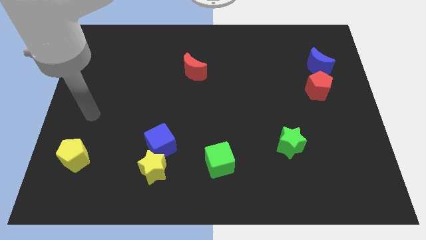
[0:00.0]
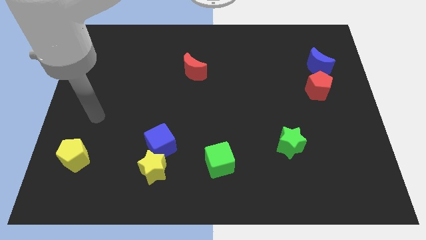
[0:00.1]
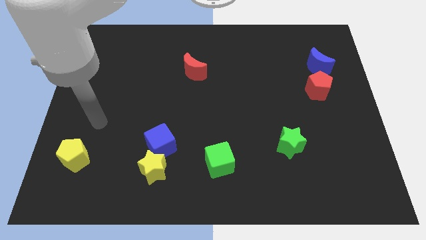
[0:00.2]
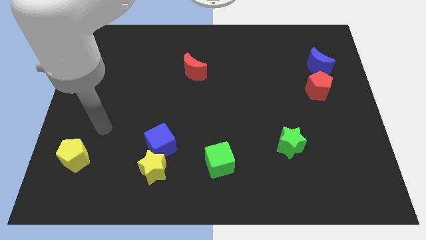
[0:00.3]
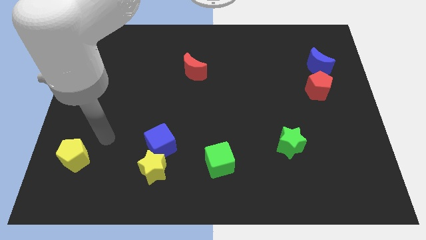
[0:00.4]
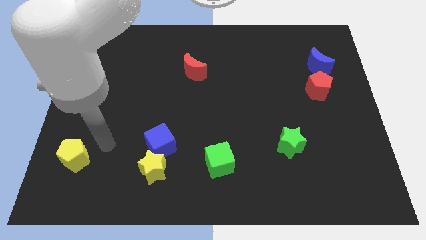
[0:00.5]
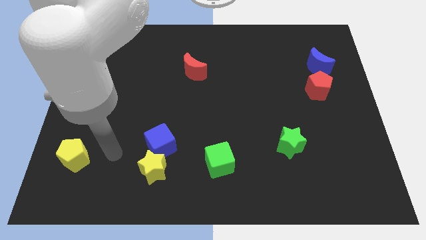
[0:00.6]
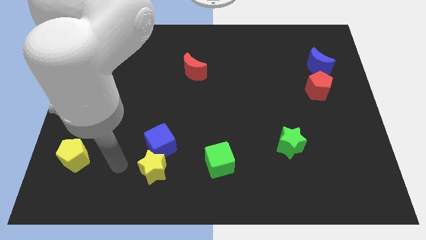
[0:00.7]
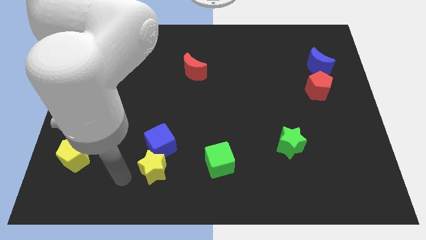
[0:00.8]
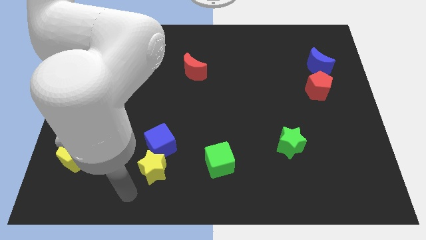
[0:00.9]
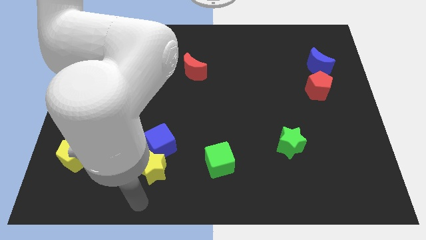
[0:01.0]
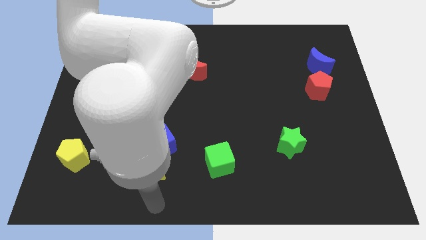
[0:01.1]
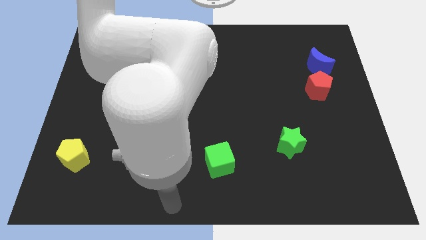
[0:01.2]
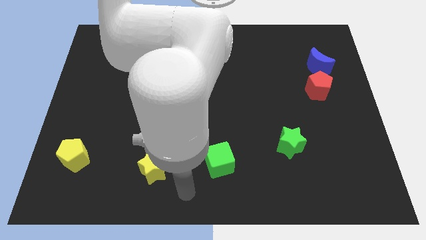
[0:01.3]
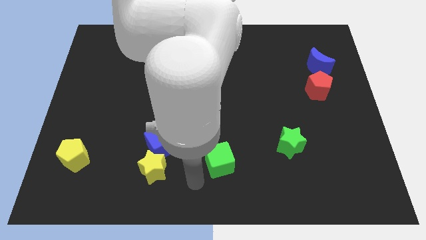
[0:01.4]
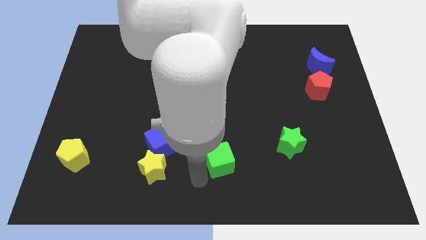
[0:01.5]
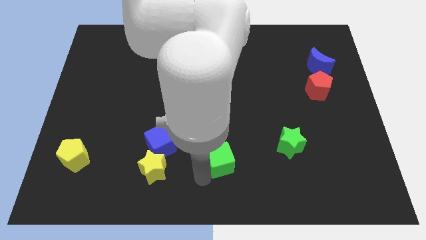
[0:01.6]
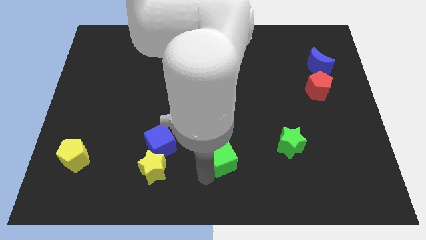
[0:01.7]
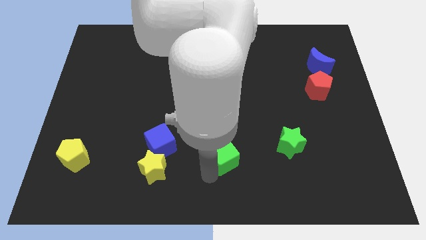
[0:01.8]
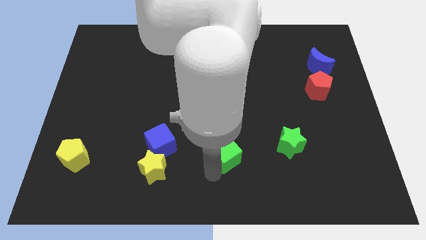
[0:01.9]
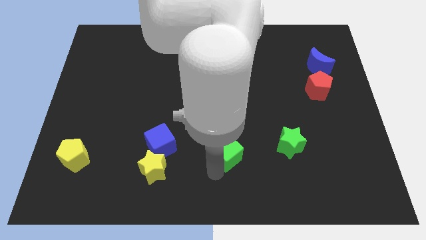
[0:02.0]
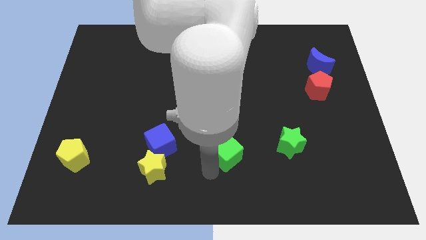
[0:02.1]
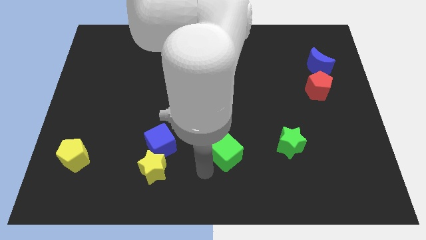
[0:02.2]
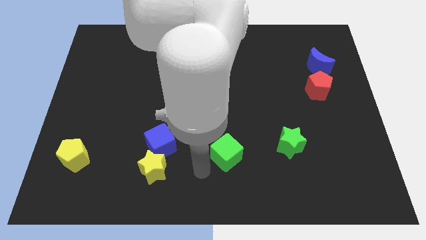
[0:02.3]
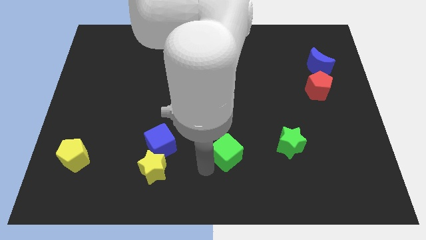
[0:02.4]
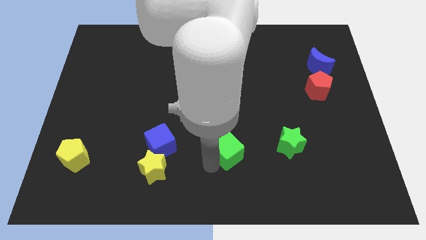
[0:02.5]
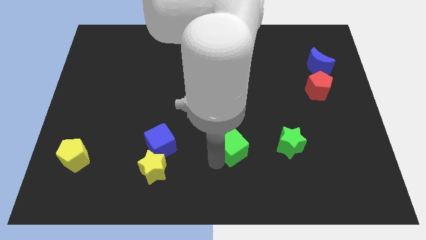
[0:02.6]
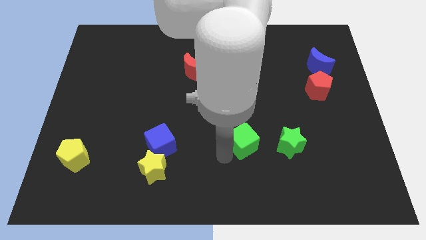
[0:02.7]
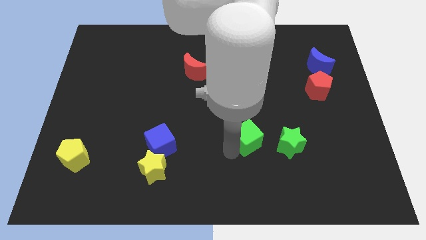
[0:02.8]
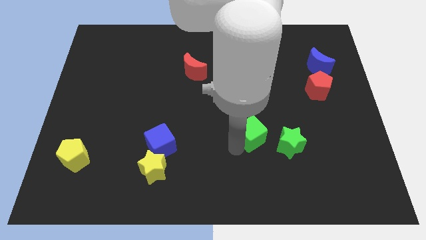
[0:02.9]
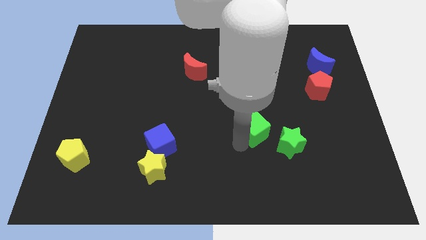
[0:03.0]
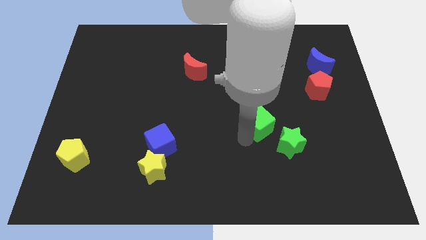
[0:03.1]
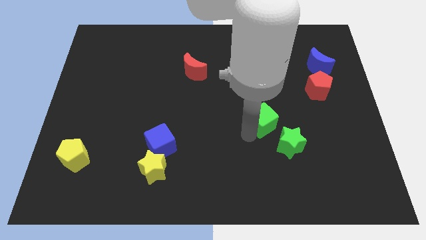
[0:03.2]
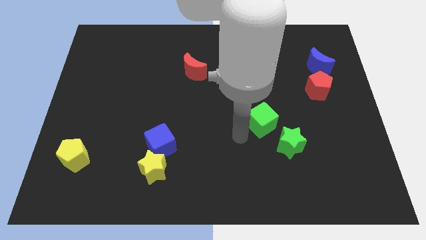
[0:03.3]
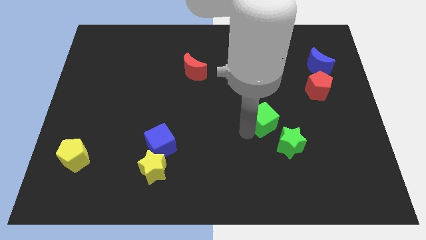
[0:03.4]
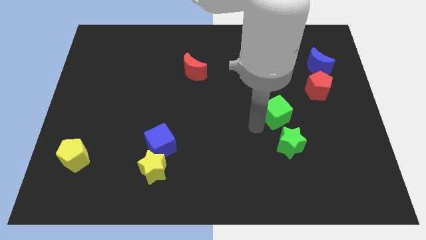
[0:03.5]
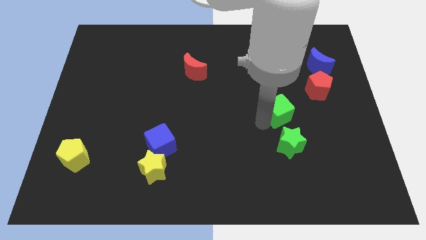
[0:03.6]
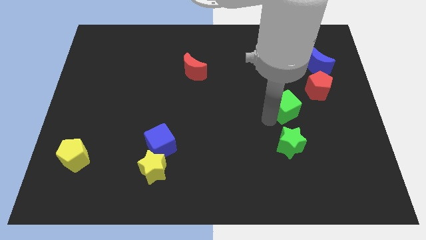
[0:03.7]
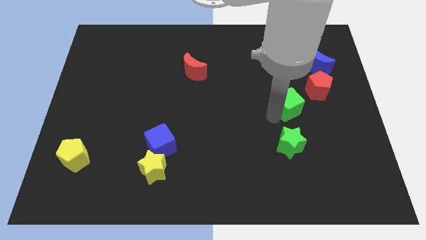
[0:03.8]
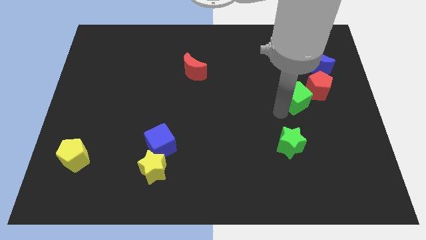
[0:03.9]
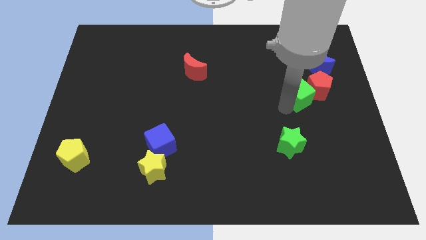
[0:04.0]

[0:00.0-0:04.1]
slide the green cube next to the red pentagon

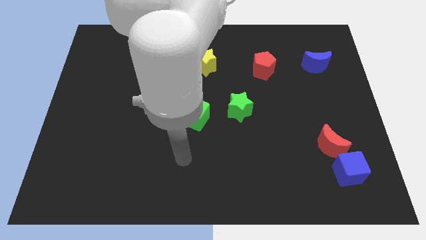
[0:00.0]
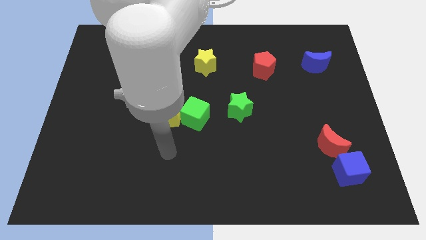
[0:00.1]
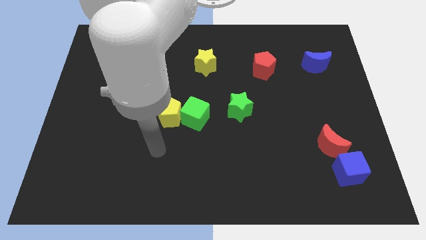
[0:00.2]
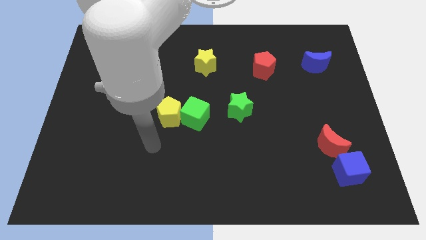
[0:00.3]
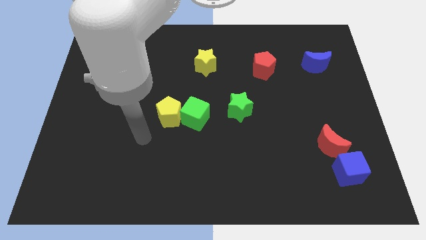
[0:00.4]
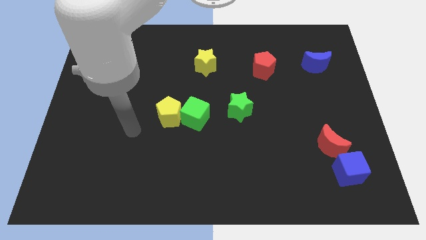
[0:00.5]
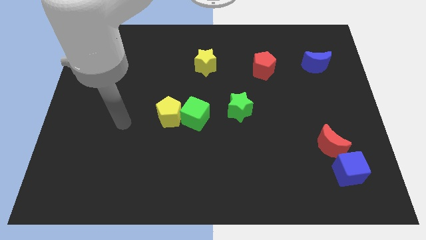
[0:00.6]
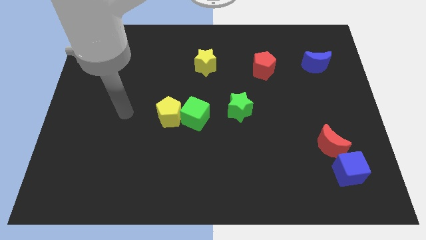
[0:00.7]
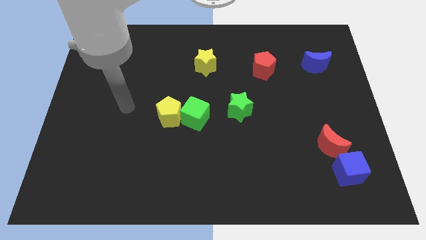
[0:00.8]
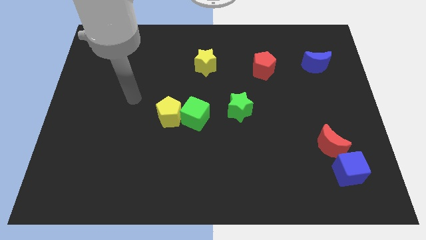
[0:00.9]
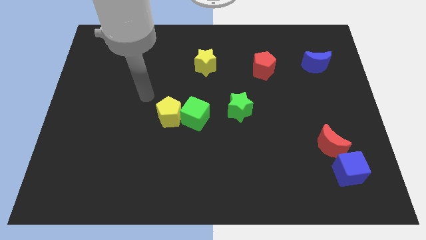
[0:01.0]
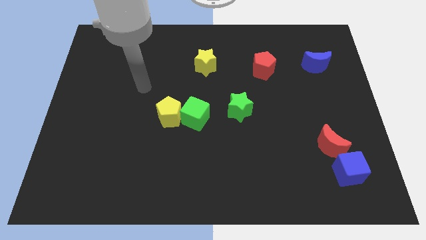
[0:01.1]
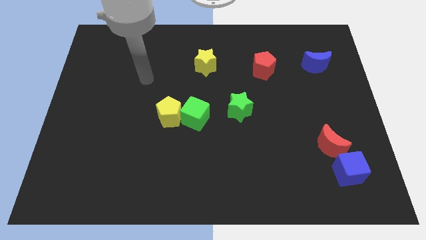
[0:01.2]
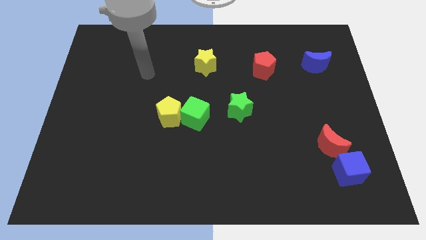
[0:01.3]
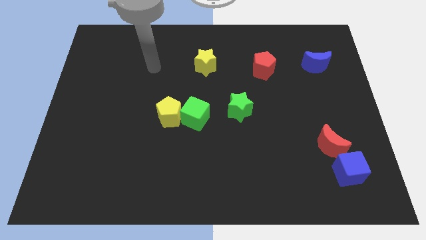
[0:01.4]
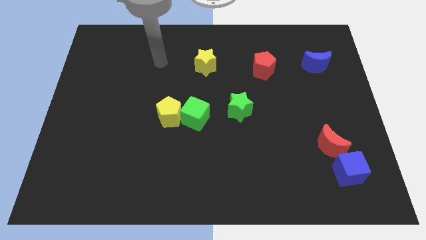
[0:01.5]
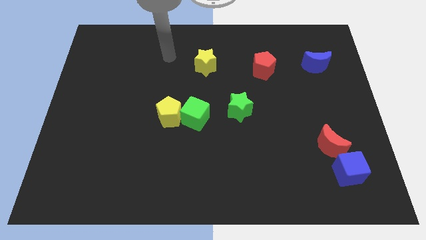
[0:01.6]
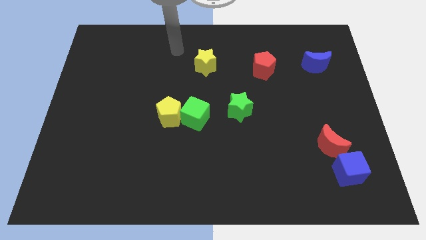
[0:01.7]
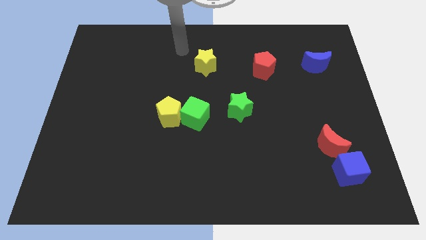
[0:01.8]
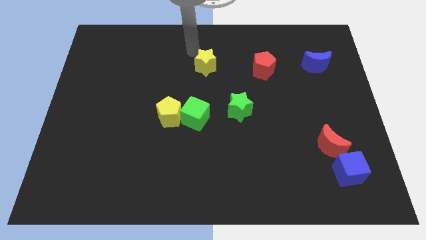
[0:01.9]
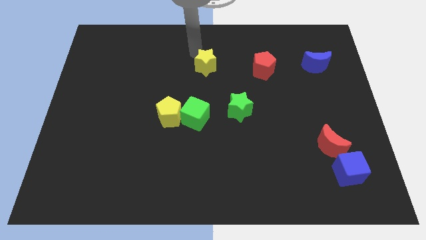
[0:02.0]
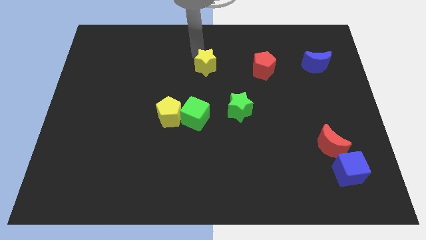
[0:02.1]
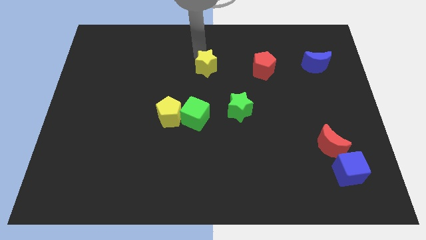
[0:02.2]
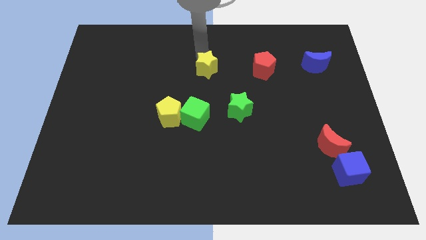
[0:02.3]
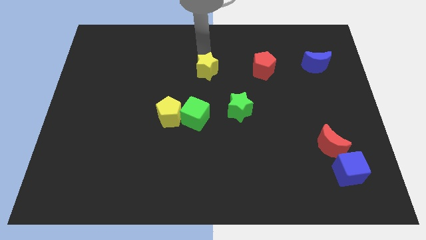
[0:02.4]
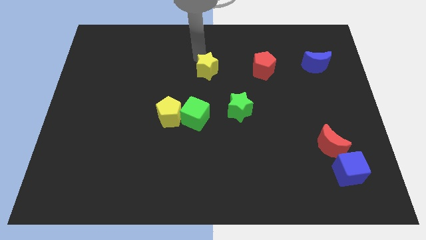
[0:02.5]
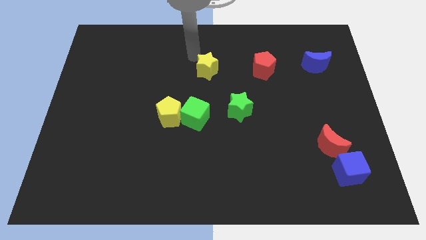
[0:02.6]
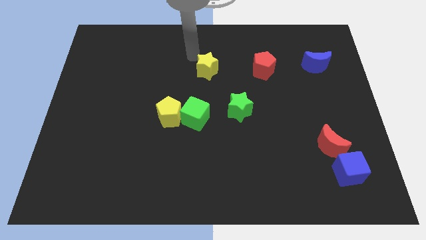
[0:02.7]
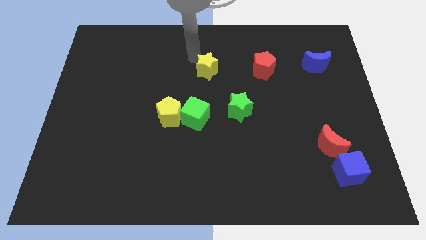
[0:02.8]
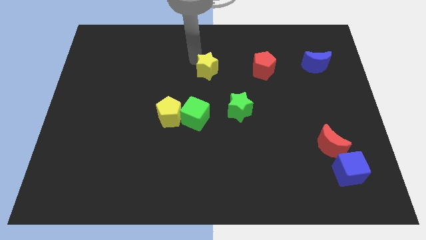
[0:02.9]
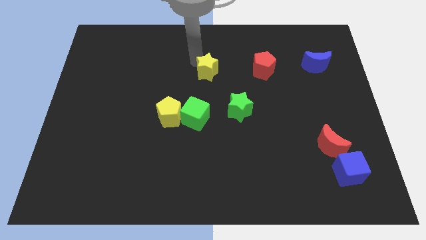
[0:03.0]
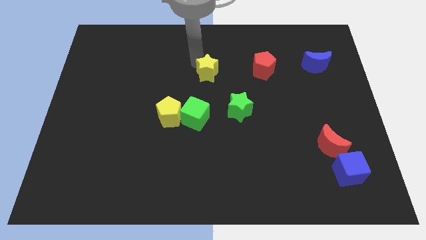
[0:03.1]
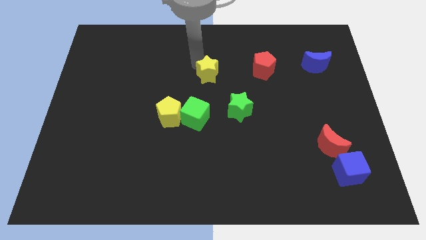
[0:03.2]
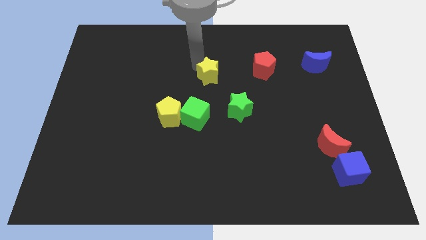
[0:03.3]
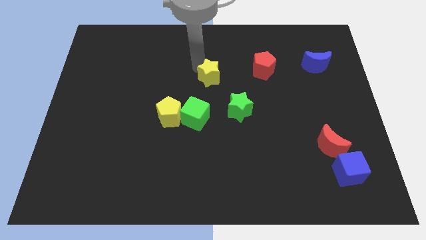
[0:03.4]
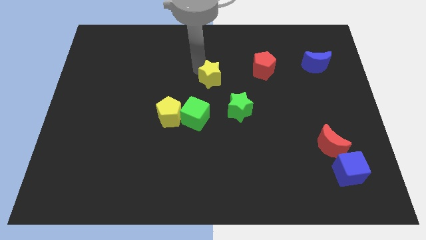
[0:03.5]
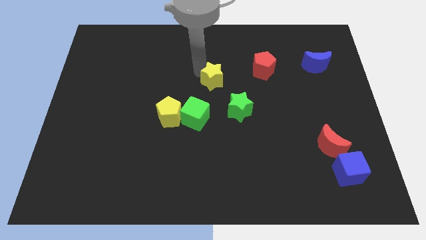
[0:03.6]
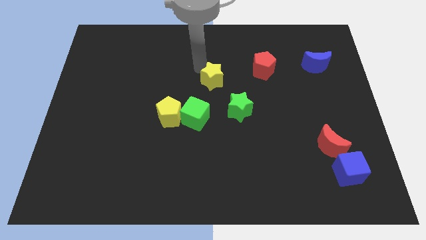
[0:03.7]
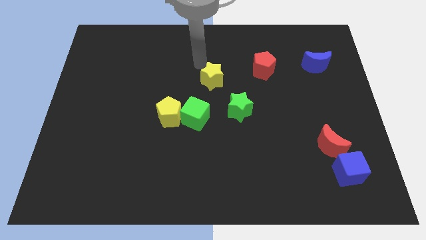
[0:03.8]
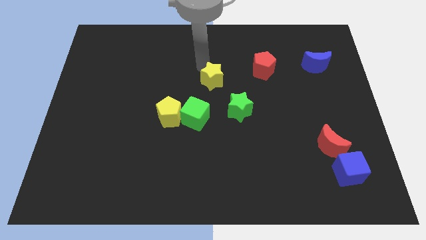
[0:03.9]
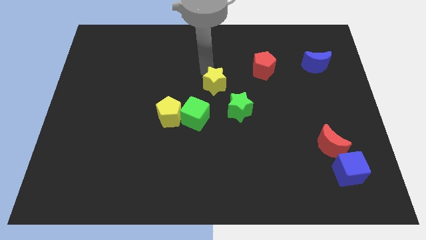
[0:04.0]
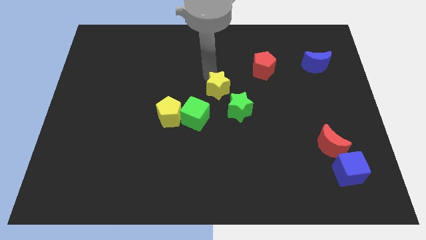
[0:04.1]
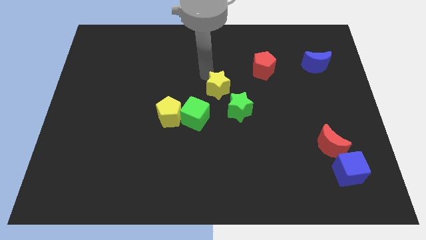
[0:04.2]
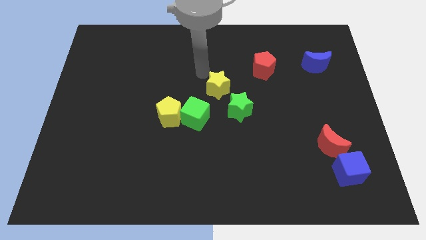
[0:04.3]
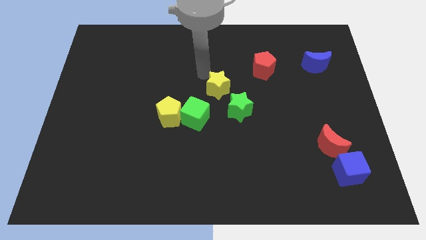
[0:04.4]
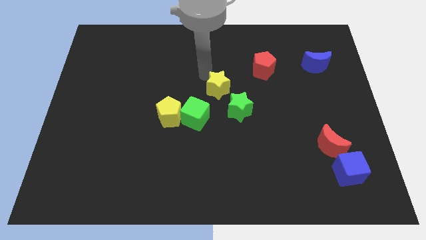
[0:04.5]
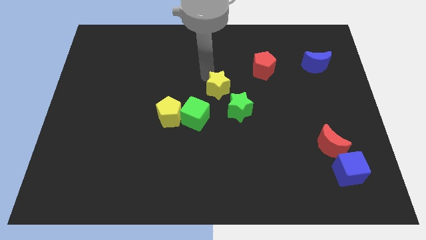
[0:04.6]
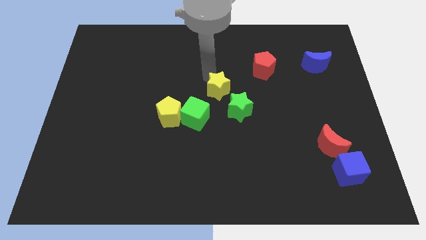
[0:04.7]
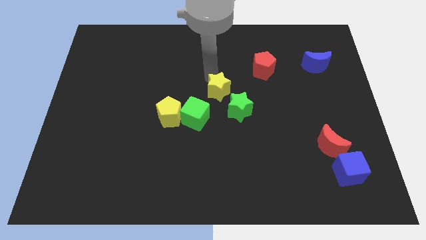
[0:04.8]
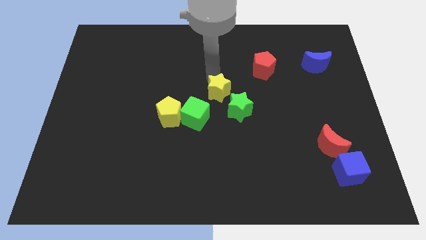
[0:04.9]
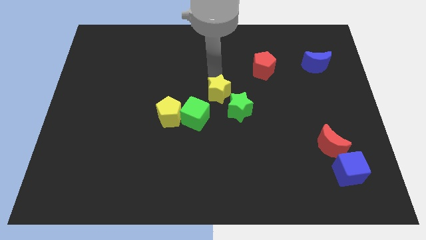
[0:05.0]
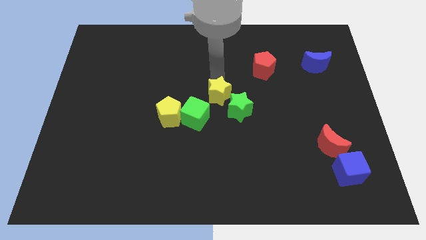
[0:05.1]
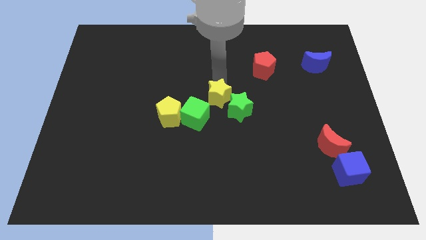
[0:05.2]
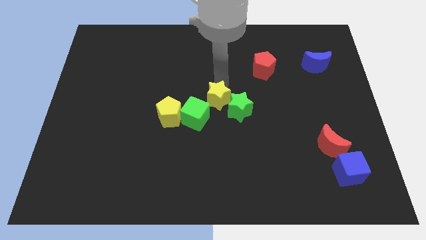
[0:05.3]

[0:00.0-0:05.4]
push the yellow star towards the green star
